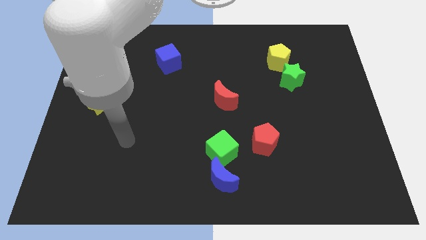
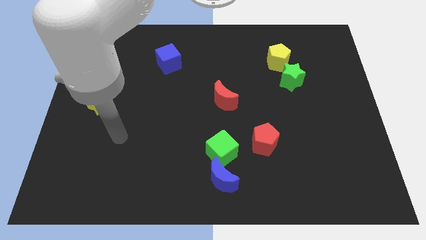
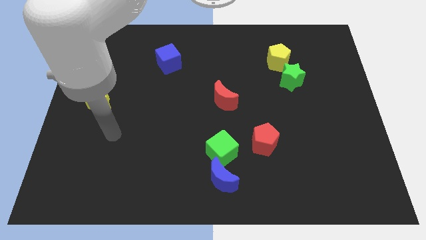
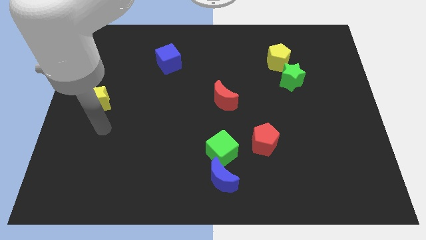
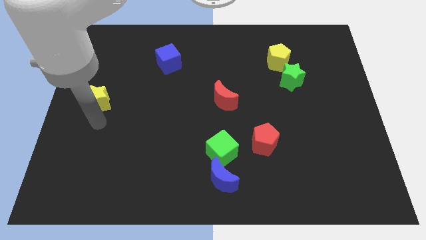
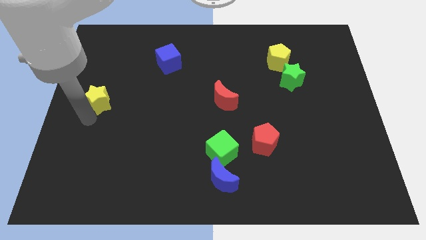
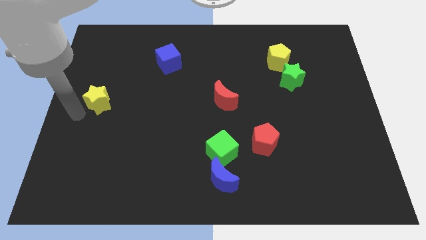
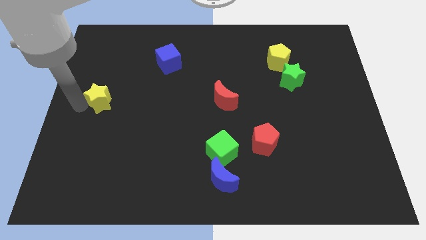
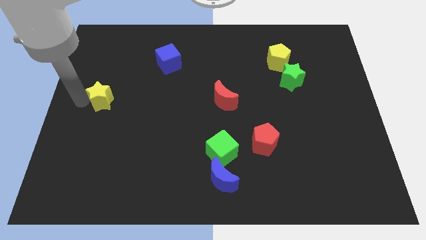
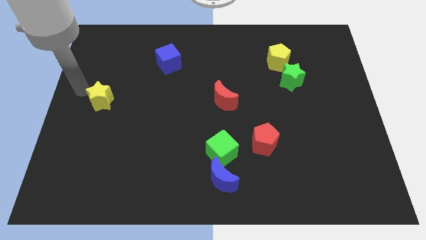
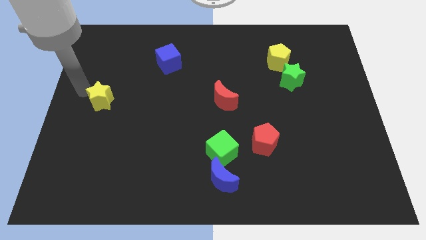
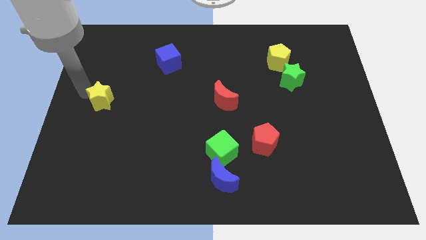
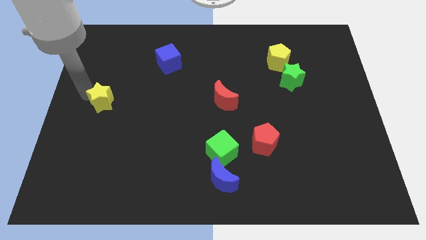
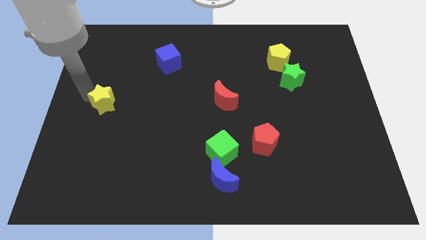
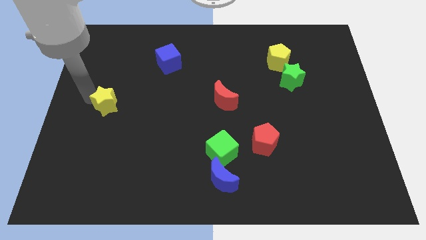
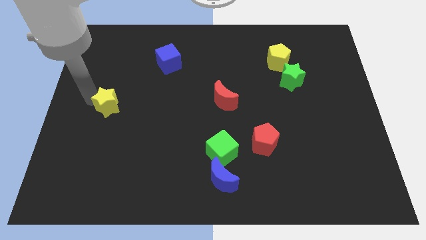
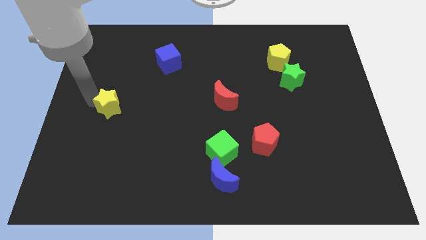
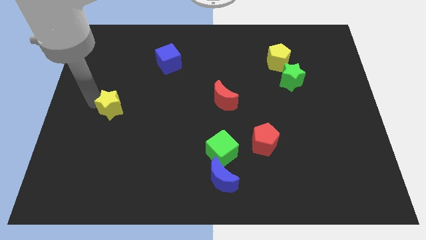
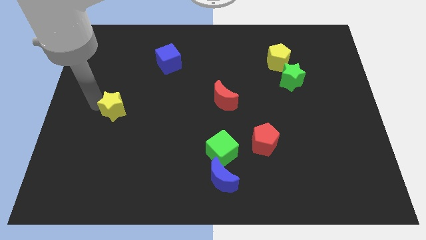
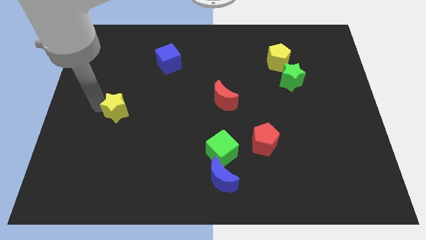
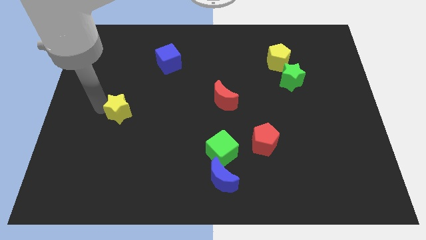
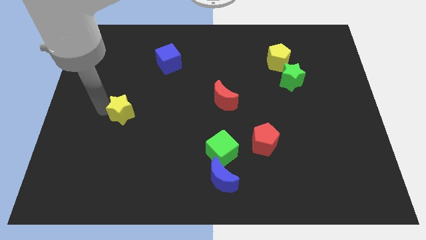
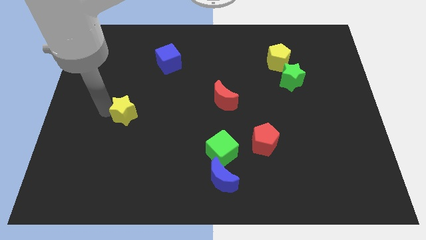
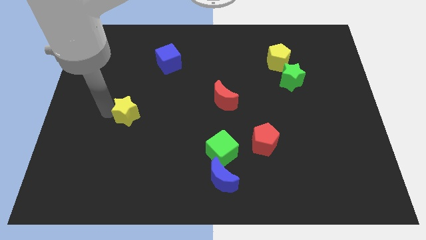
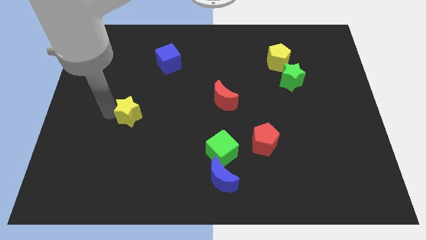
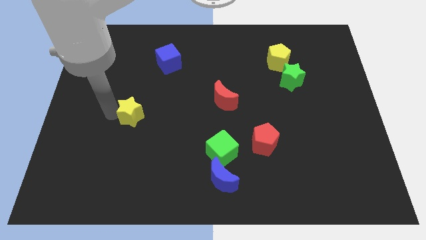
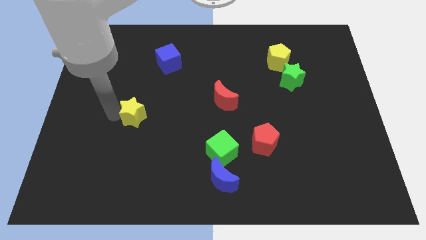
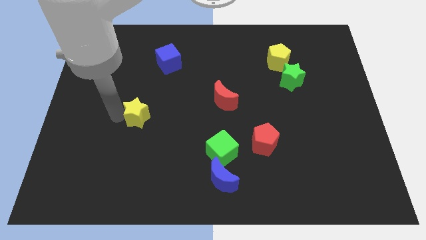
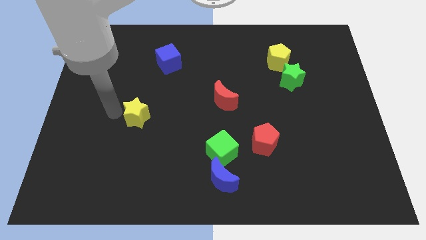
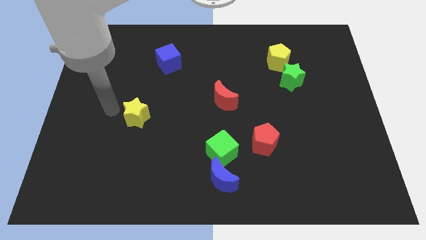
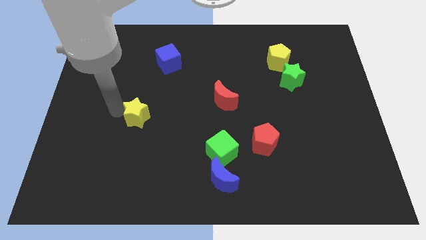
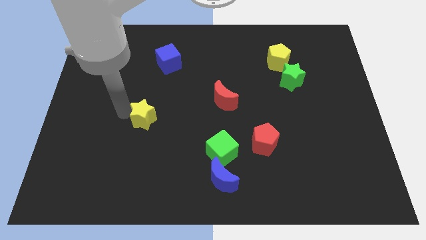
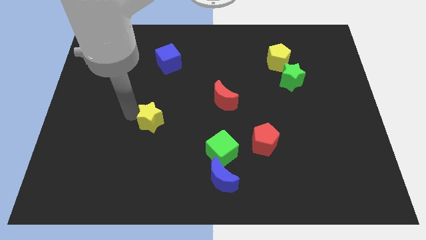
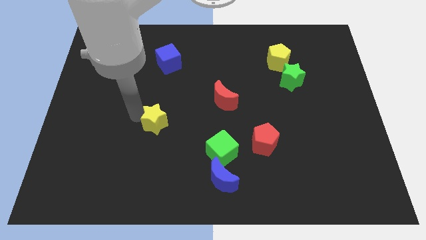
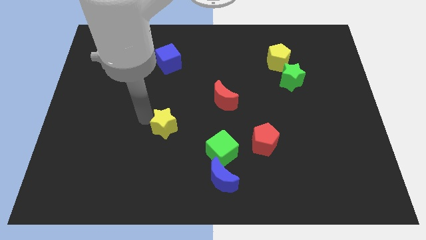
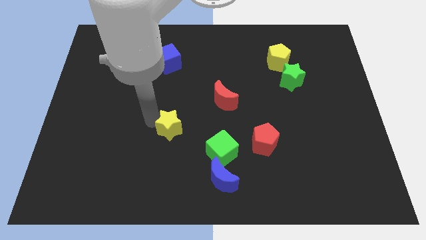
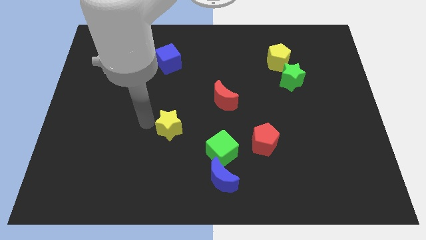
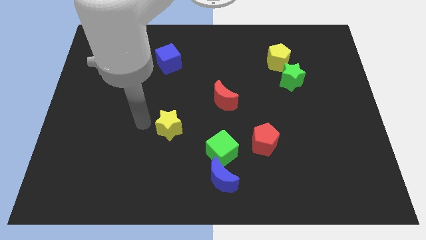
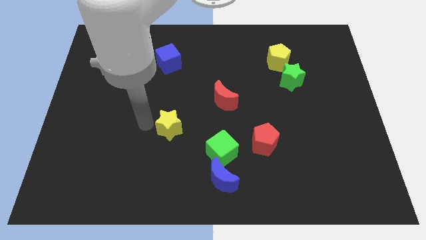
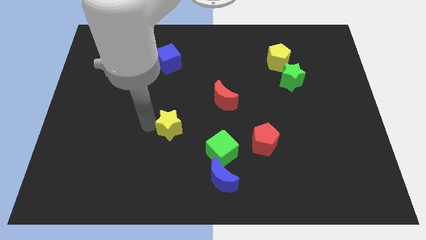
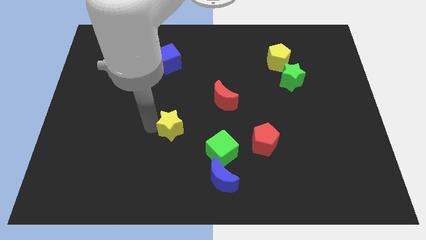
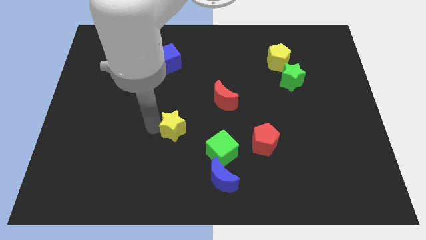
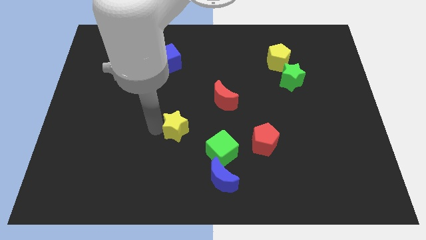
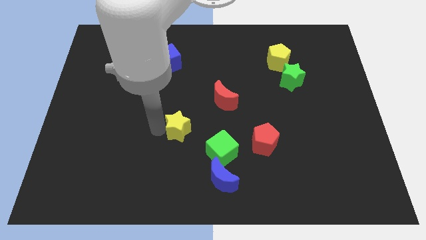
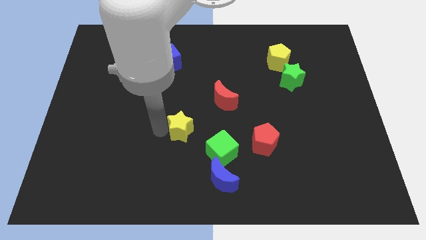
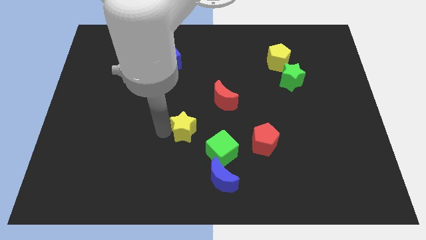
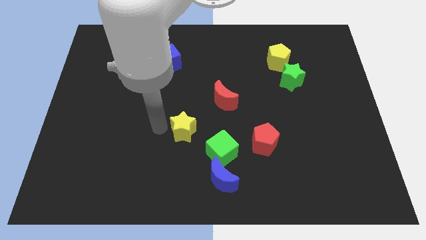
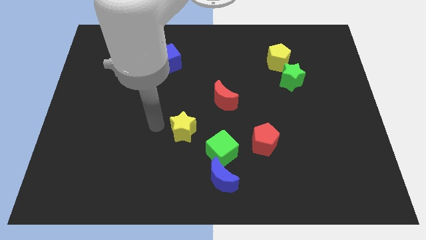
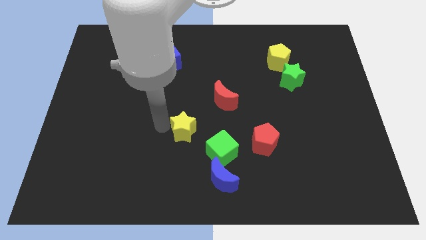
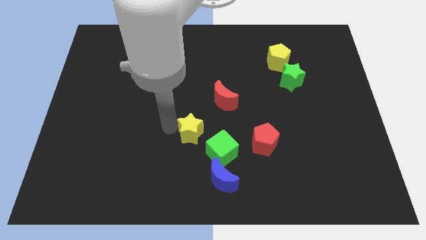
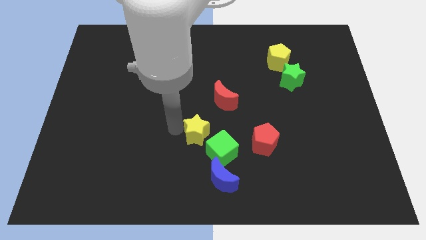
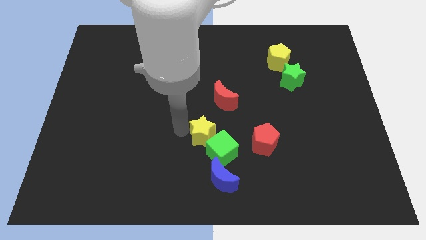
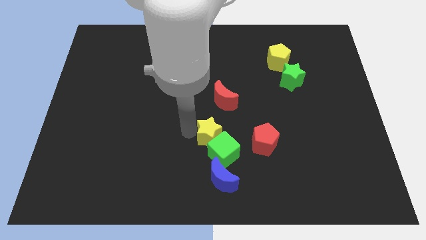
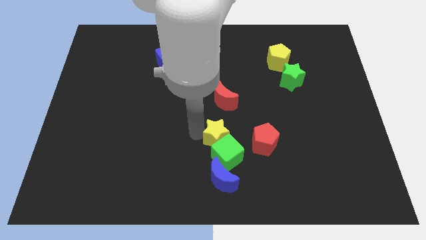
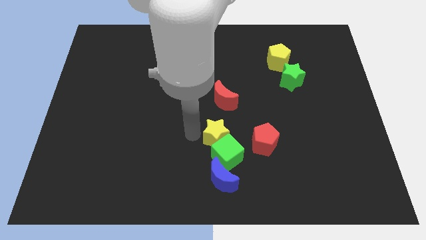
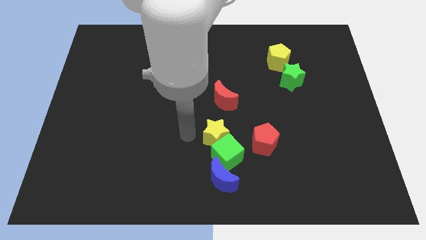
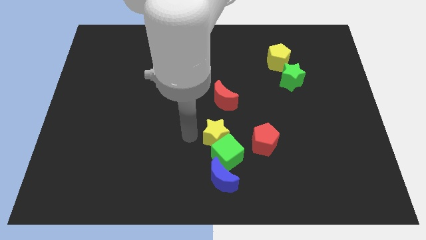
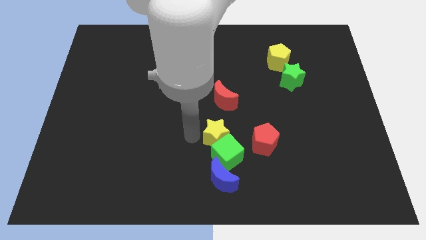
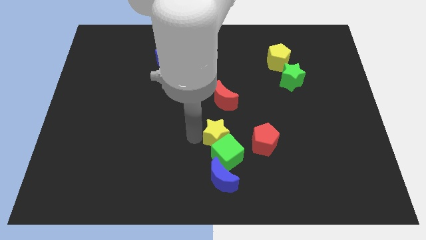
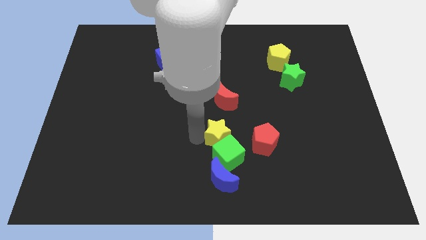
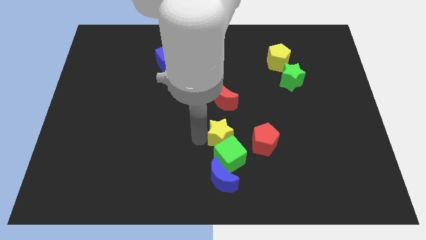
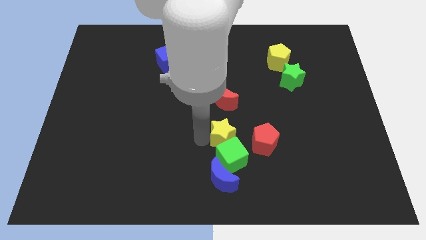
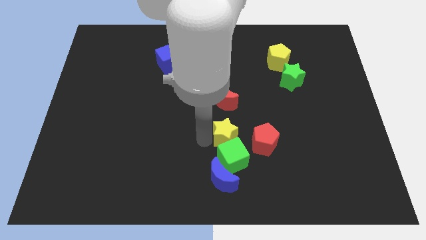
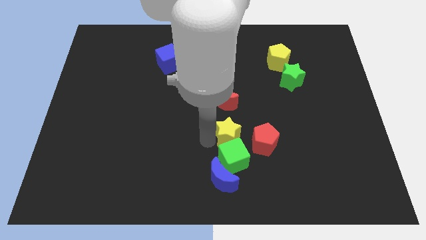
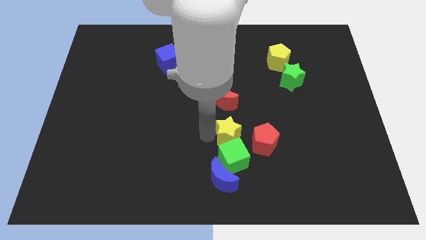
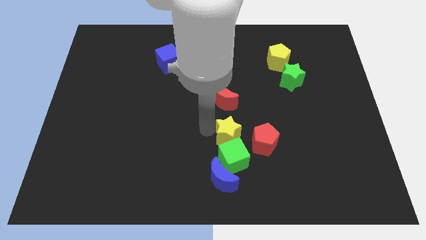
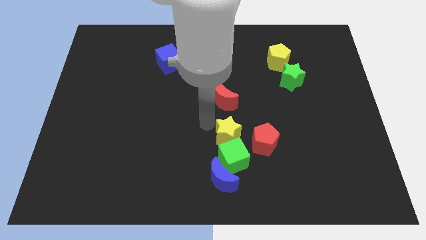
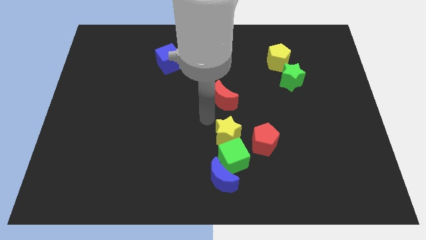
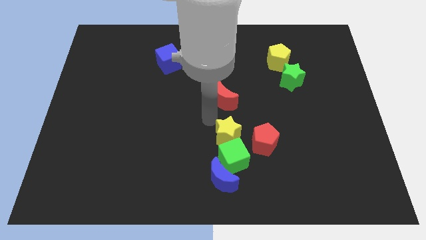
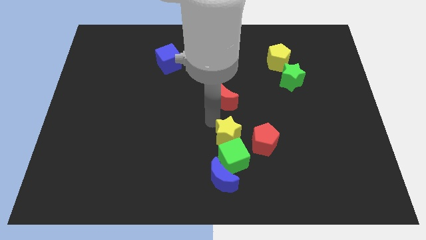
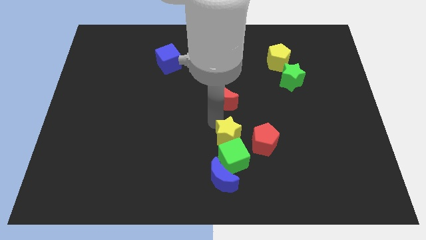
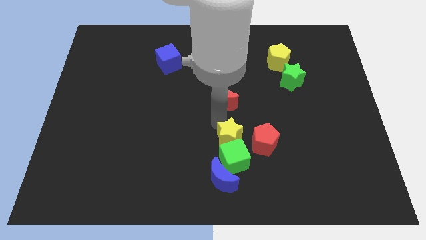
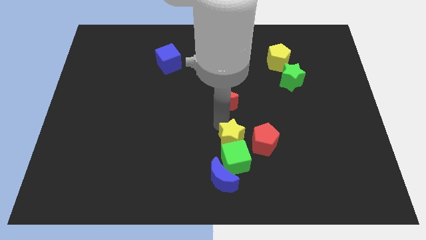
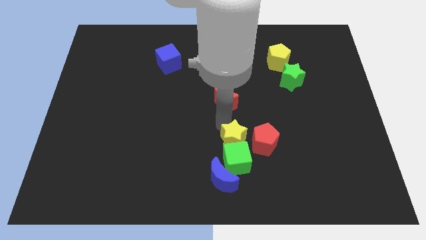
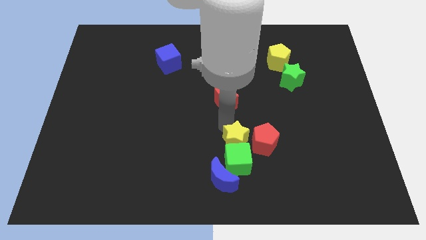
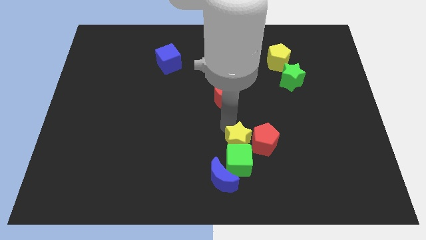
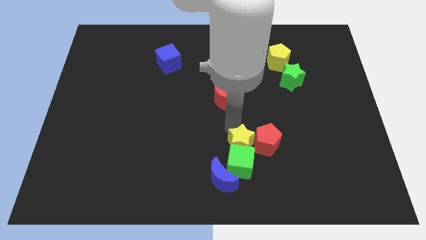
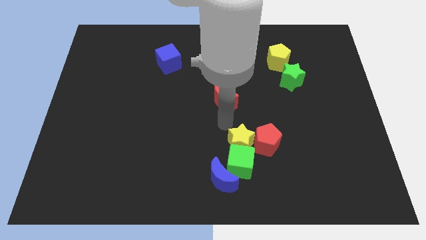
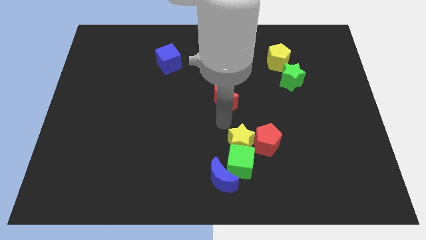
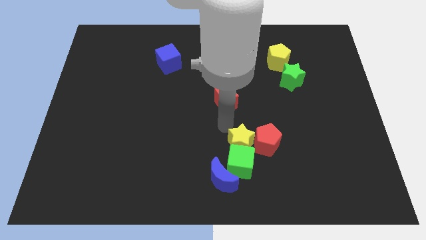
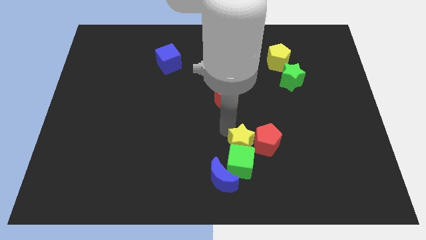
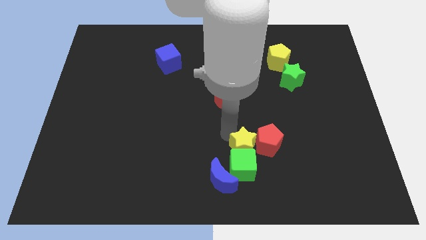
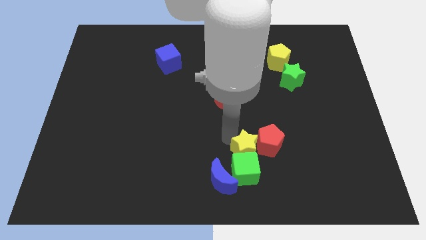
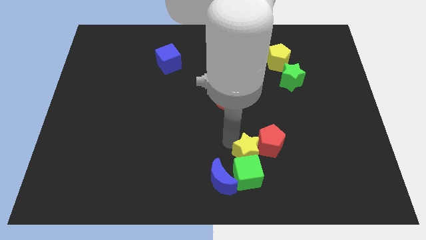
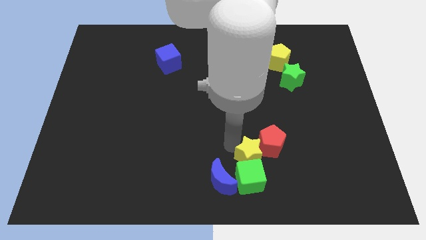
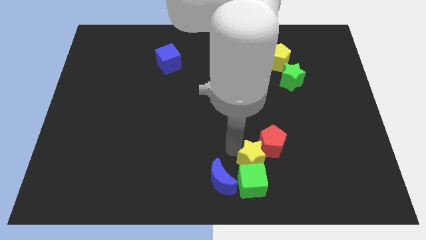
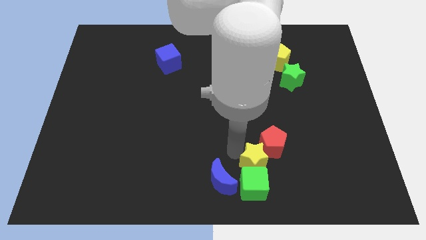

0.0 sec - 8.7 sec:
push the yellow star right of the blue moon
